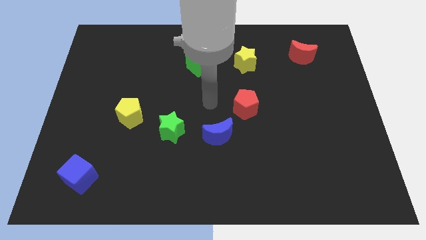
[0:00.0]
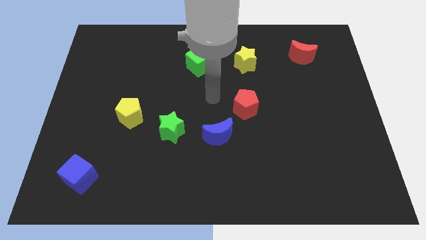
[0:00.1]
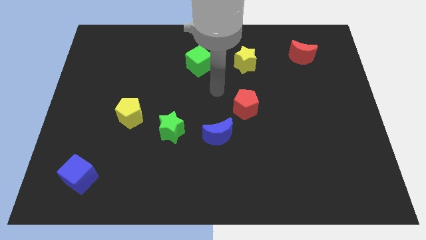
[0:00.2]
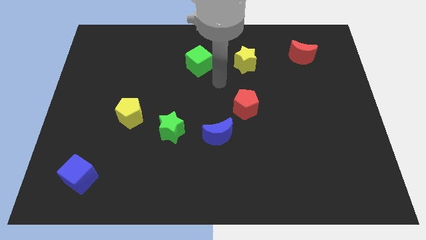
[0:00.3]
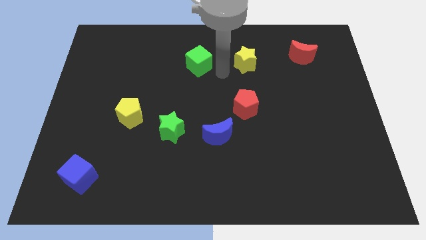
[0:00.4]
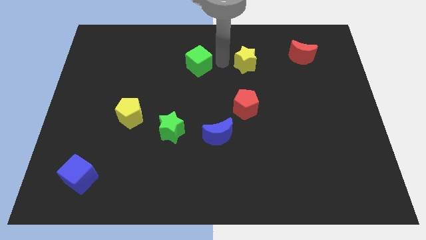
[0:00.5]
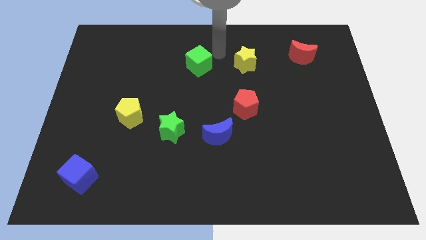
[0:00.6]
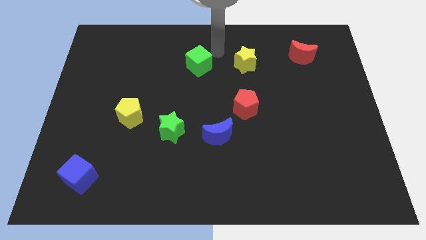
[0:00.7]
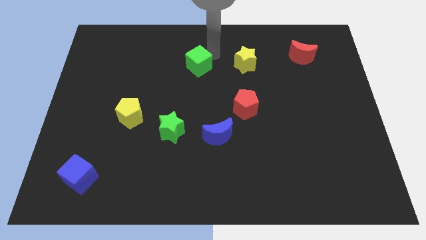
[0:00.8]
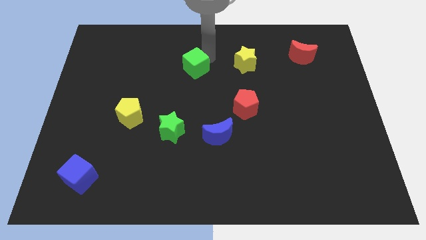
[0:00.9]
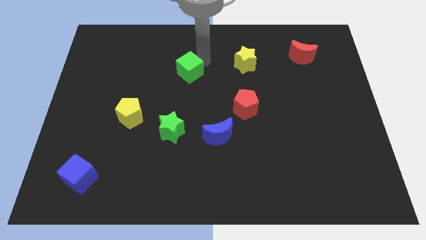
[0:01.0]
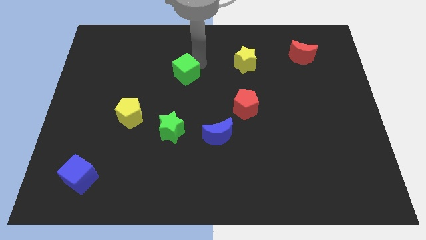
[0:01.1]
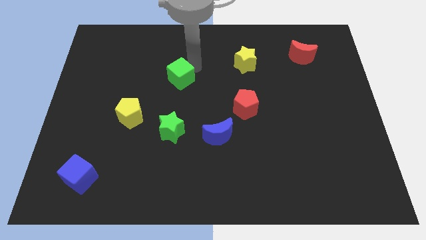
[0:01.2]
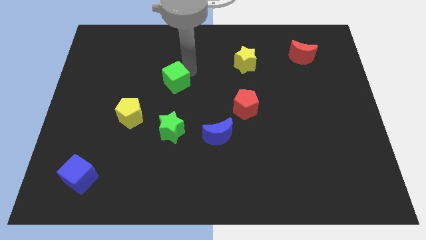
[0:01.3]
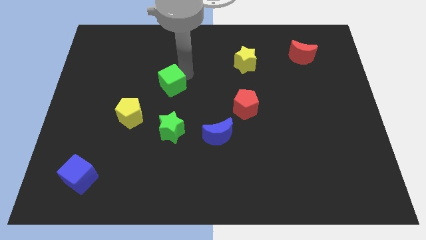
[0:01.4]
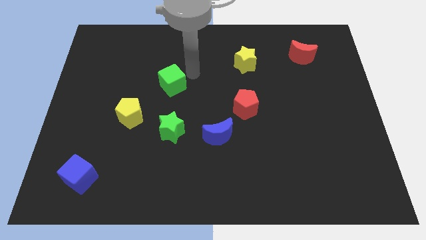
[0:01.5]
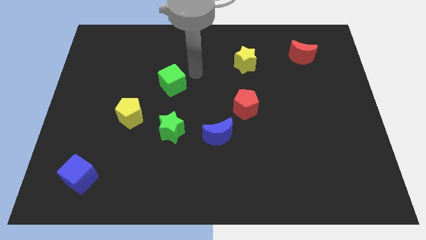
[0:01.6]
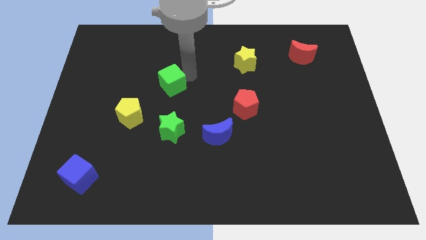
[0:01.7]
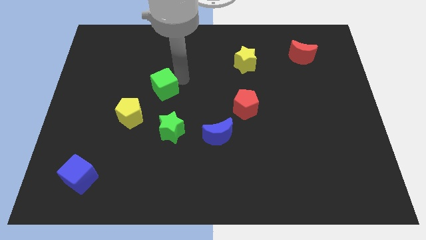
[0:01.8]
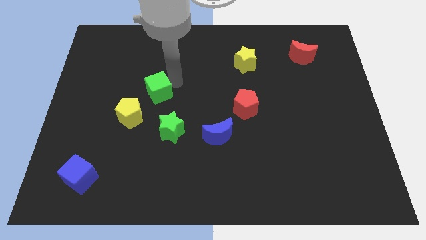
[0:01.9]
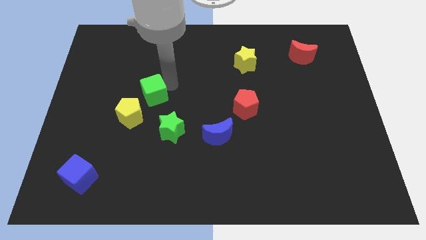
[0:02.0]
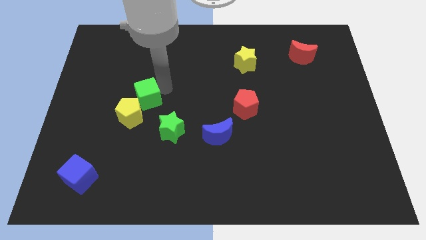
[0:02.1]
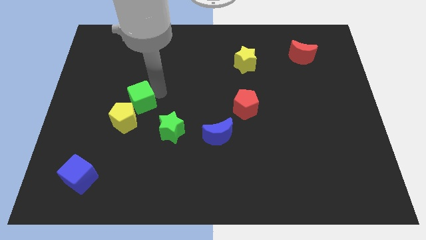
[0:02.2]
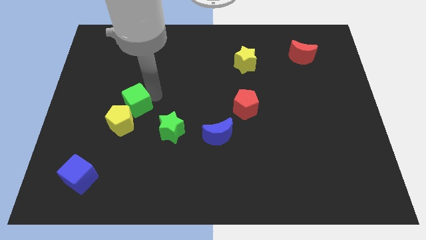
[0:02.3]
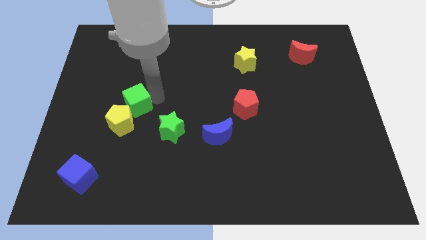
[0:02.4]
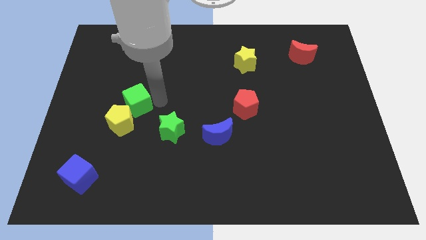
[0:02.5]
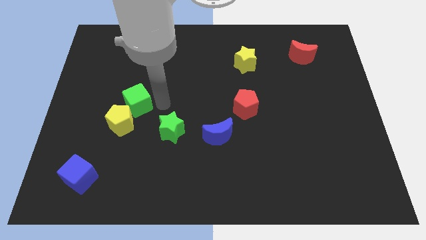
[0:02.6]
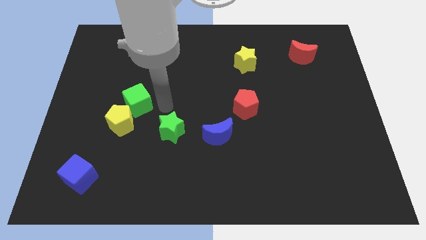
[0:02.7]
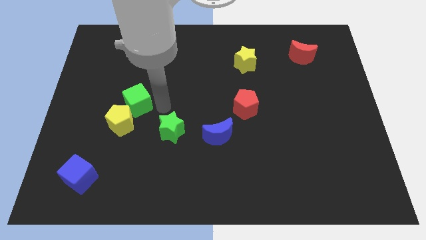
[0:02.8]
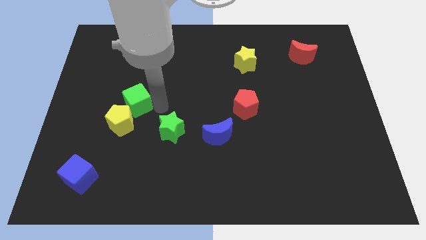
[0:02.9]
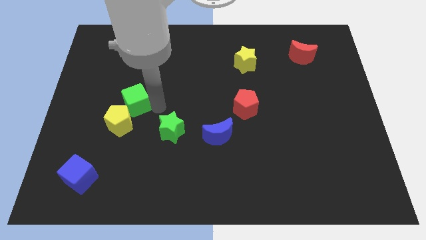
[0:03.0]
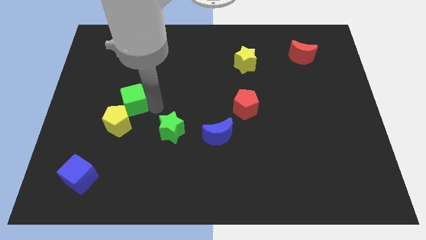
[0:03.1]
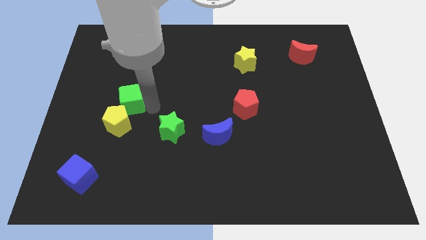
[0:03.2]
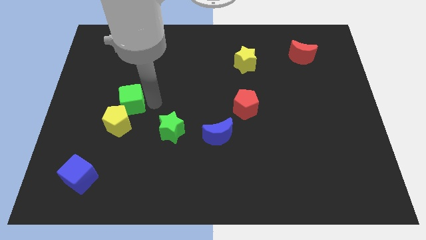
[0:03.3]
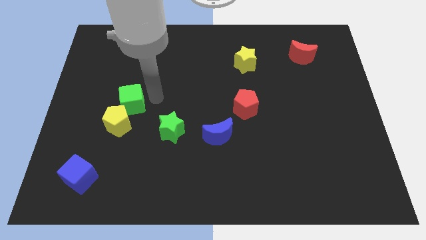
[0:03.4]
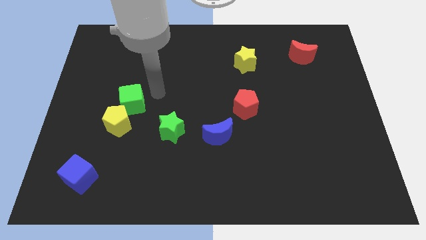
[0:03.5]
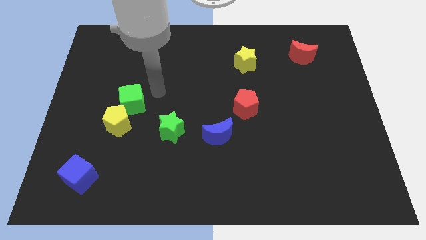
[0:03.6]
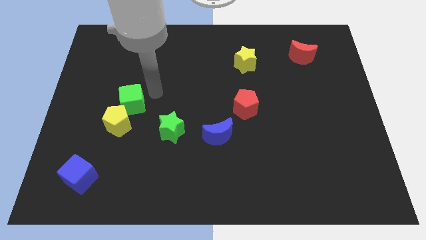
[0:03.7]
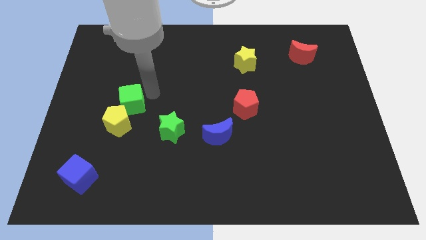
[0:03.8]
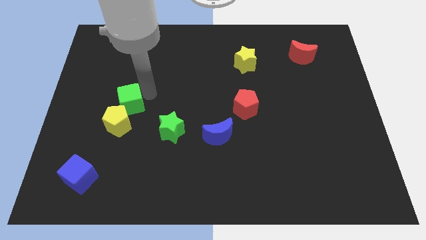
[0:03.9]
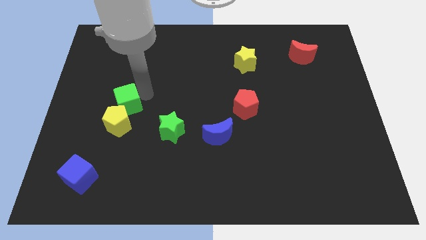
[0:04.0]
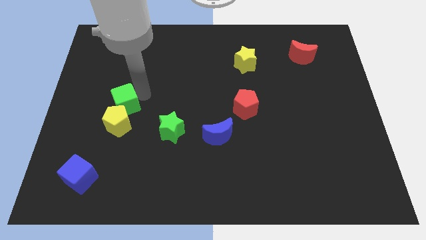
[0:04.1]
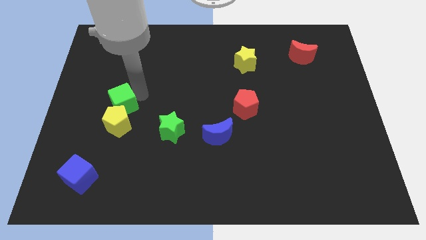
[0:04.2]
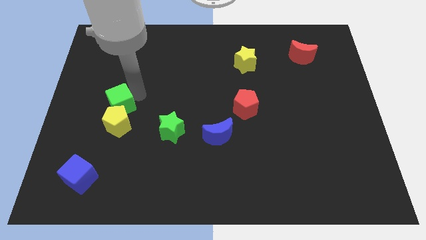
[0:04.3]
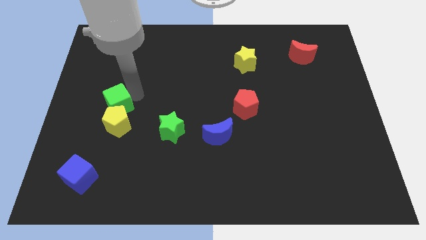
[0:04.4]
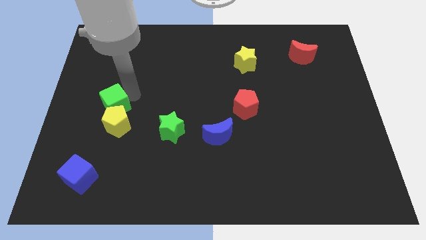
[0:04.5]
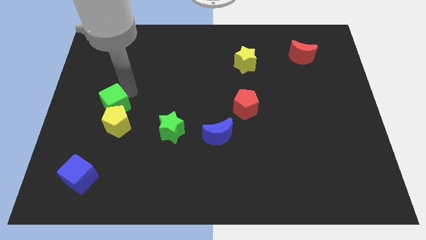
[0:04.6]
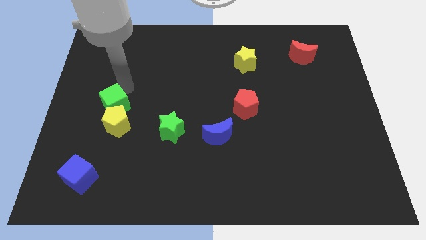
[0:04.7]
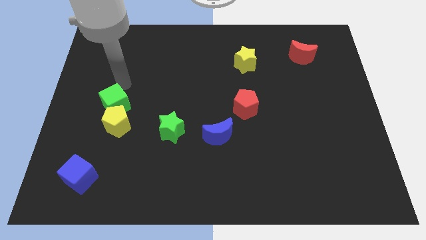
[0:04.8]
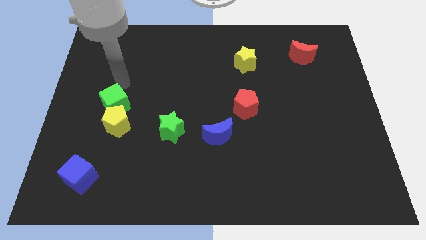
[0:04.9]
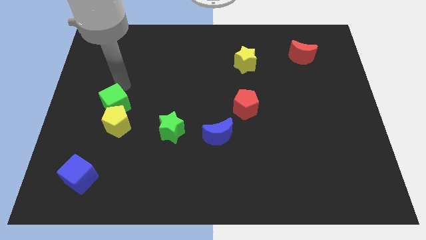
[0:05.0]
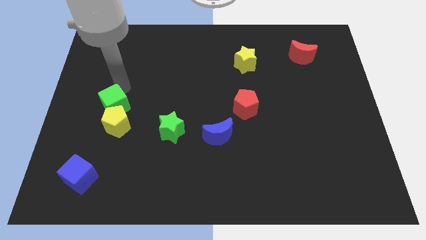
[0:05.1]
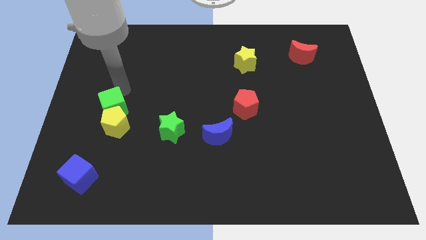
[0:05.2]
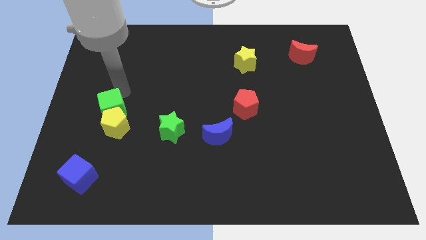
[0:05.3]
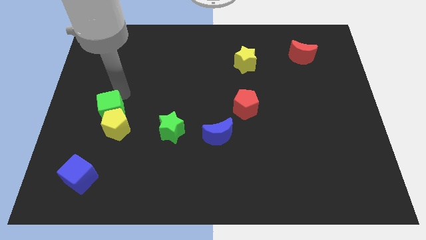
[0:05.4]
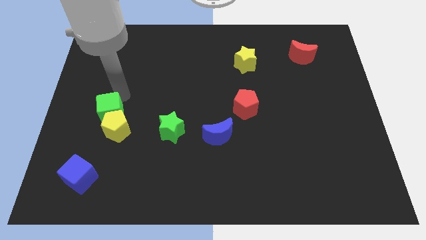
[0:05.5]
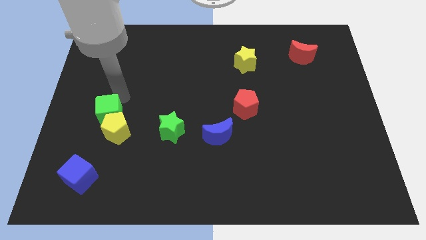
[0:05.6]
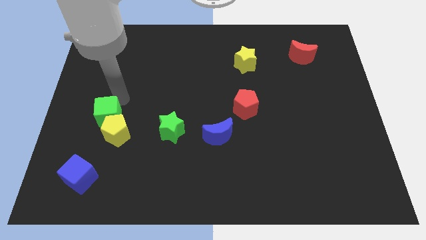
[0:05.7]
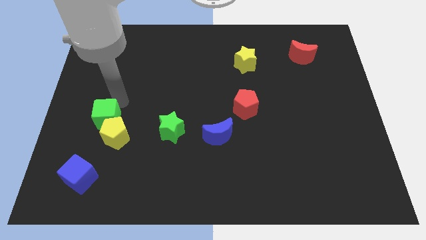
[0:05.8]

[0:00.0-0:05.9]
push the green cube left of the green star

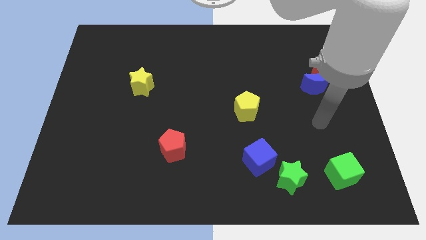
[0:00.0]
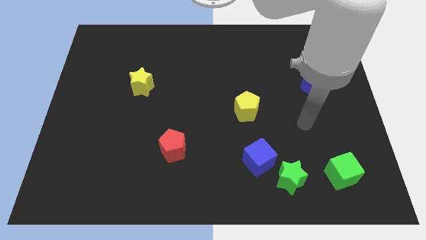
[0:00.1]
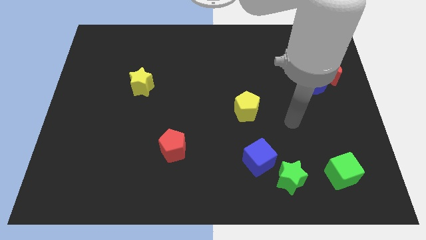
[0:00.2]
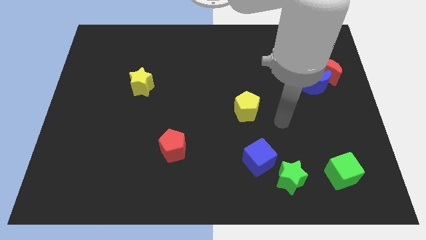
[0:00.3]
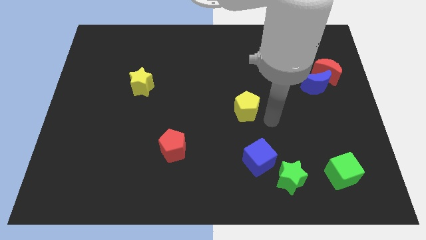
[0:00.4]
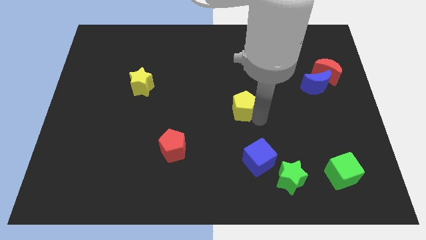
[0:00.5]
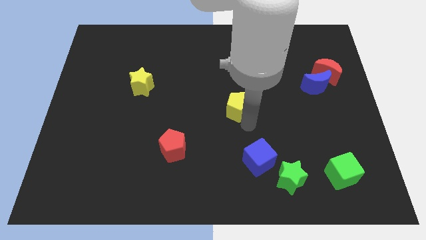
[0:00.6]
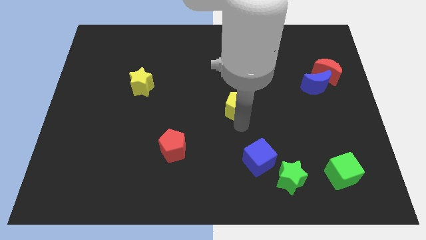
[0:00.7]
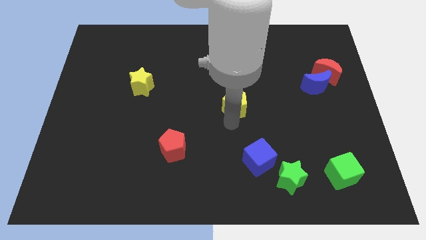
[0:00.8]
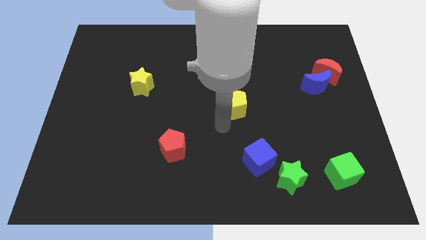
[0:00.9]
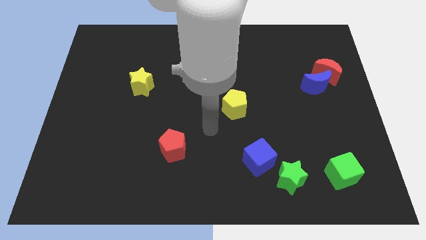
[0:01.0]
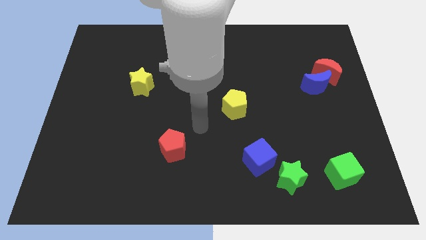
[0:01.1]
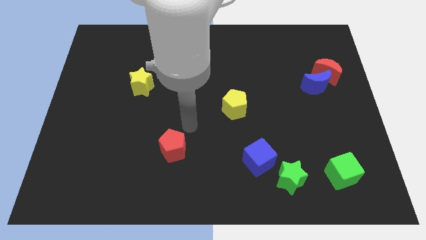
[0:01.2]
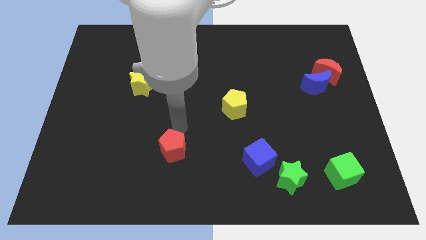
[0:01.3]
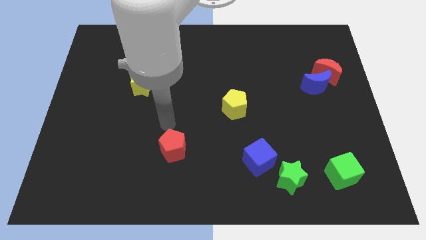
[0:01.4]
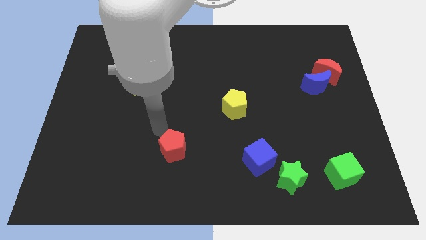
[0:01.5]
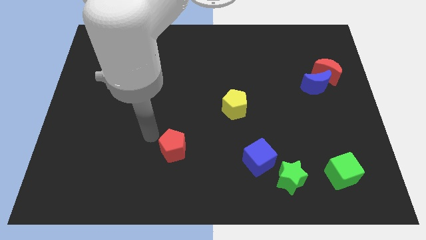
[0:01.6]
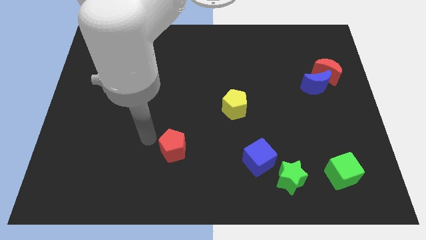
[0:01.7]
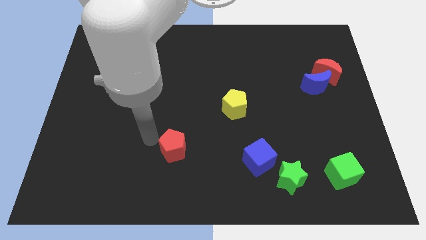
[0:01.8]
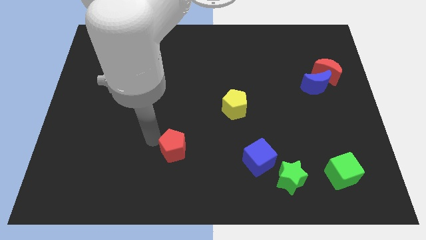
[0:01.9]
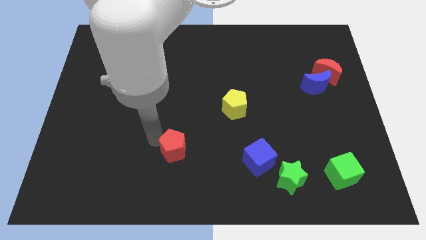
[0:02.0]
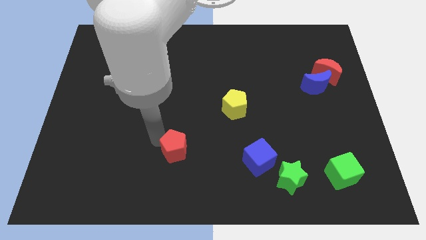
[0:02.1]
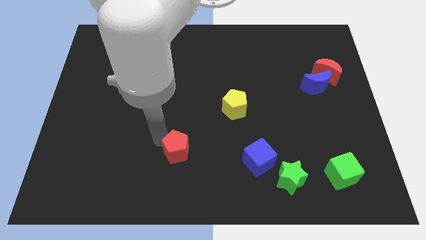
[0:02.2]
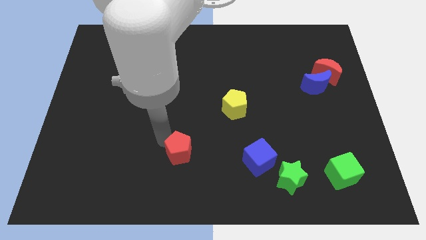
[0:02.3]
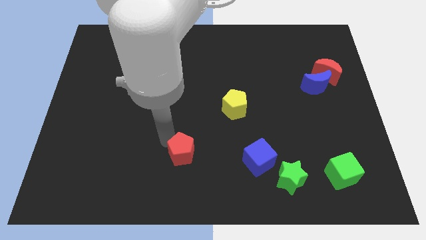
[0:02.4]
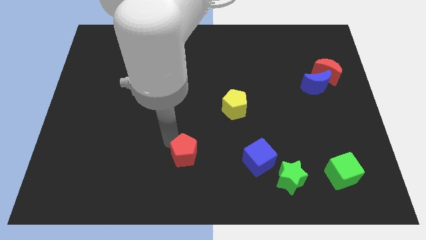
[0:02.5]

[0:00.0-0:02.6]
move the red pentagon to the left of the blue cube
